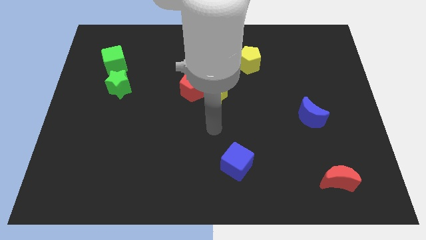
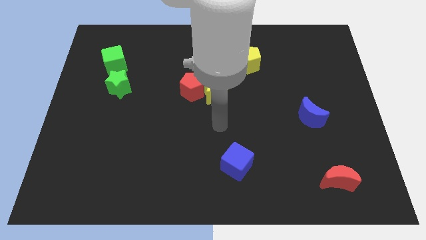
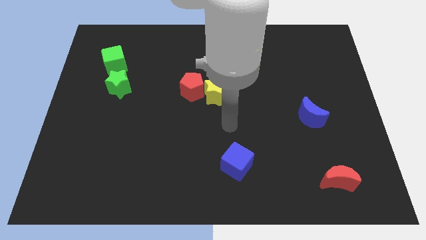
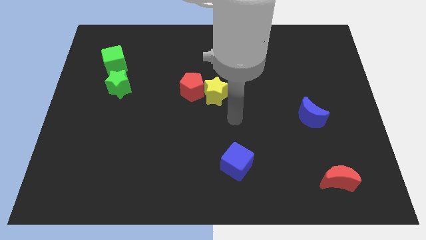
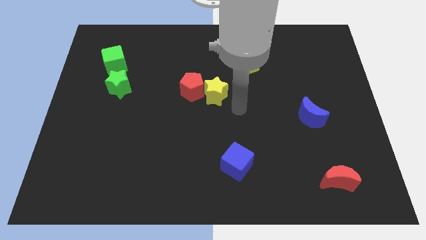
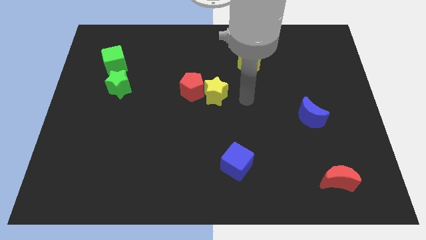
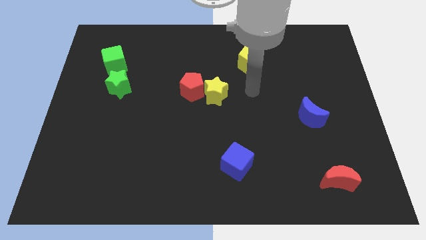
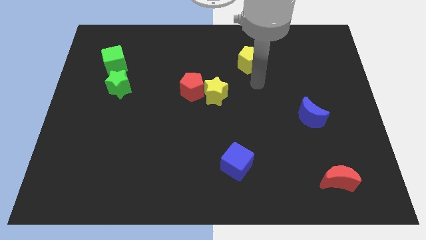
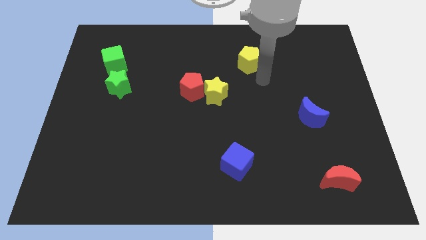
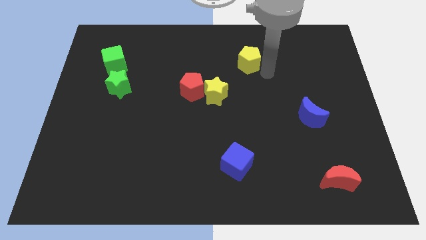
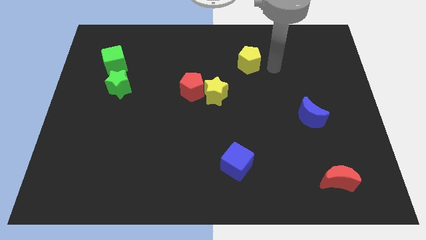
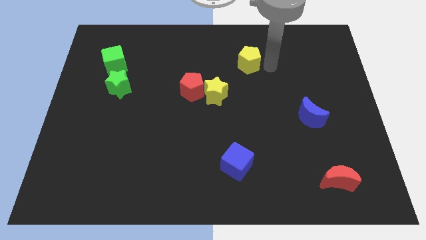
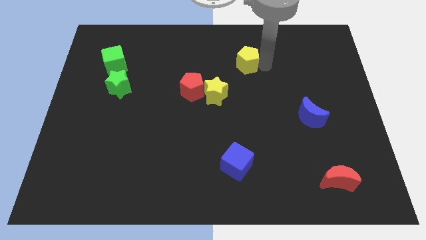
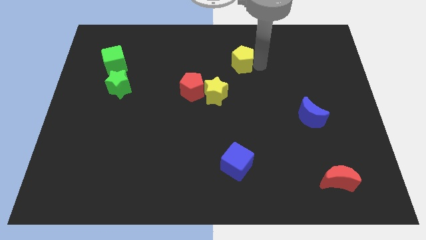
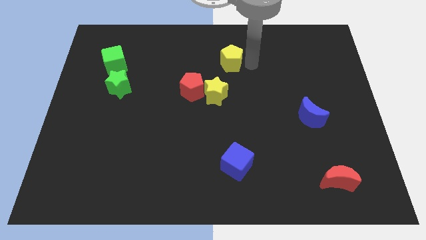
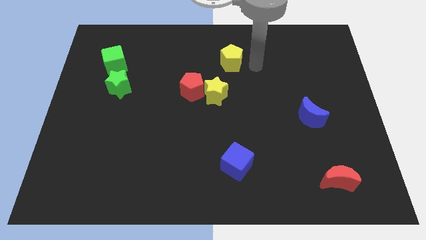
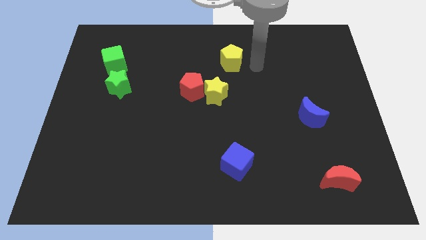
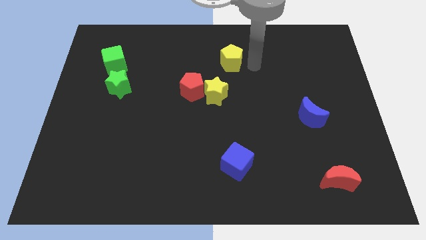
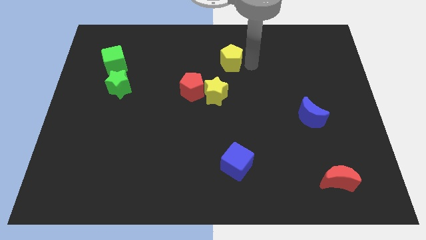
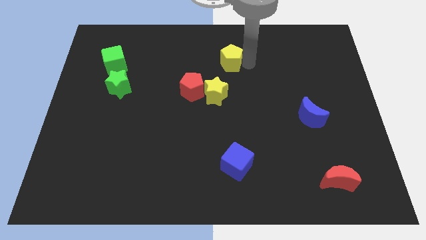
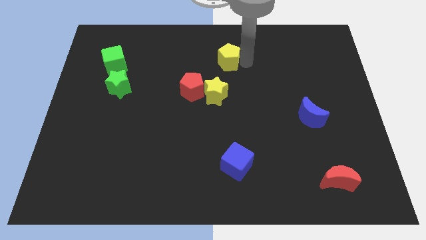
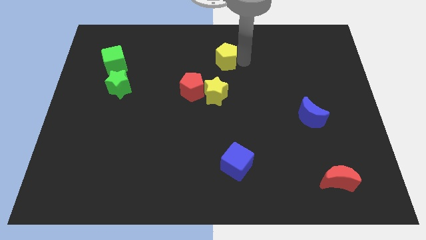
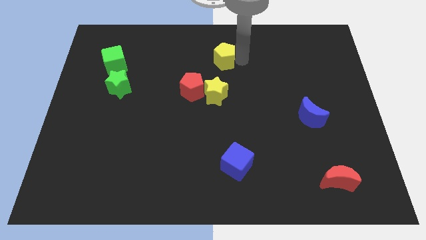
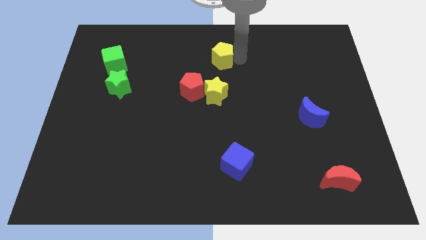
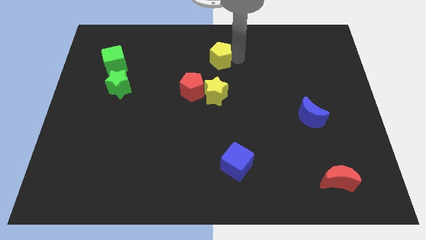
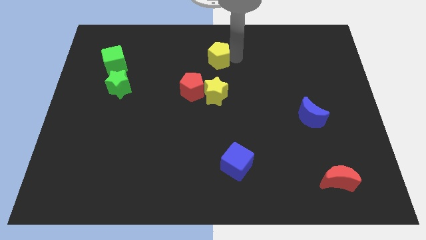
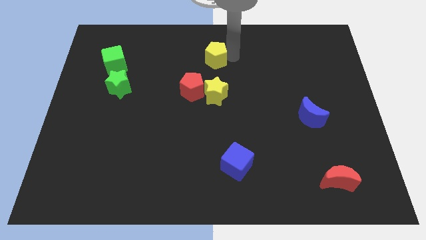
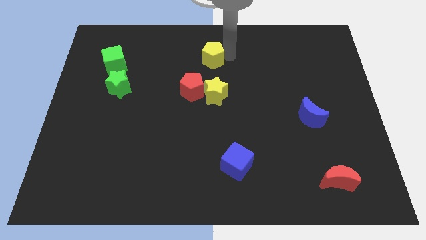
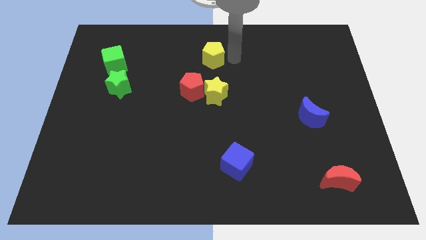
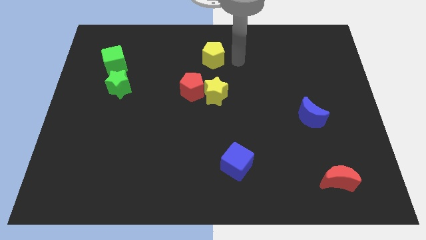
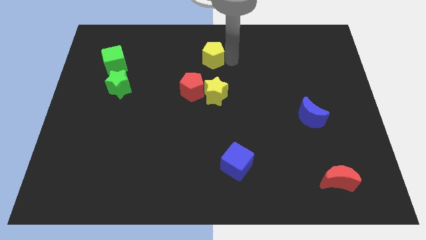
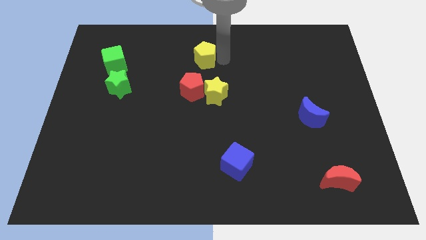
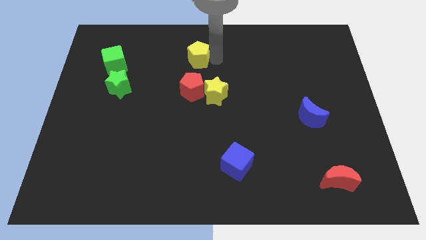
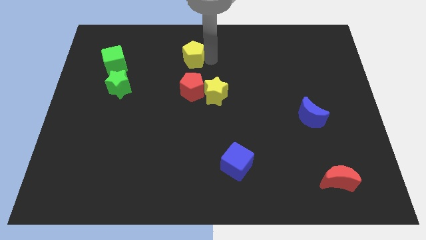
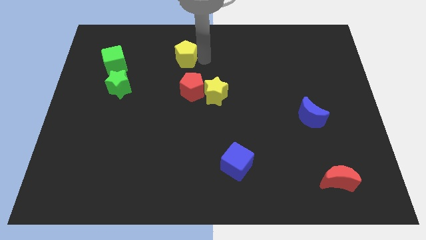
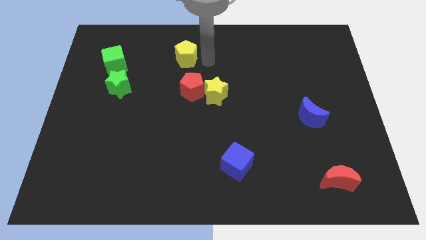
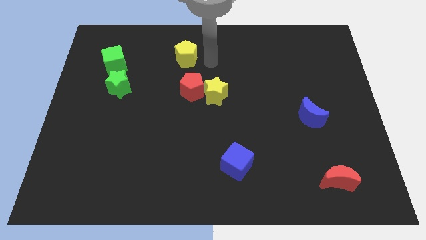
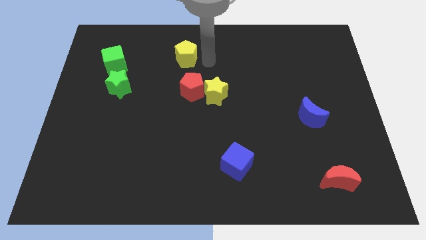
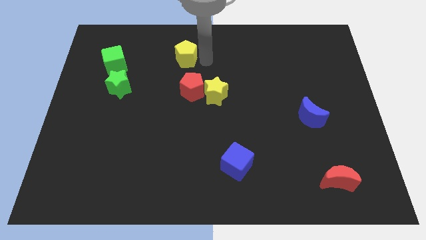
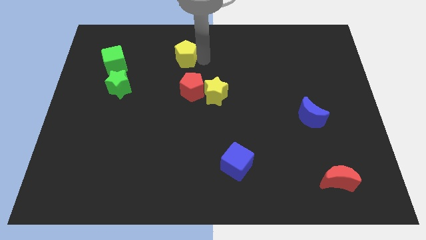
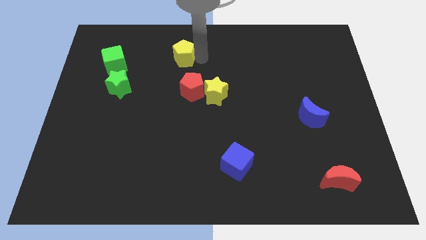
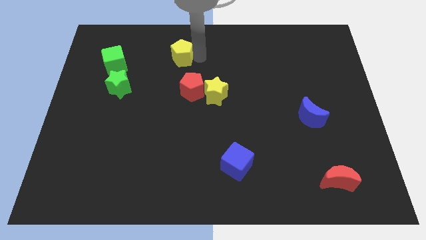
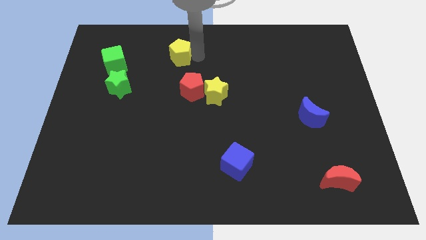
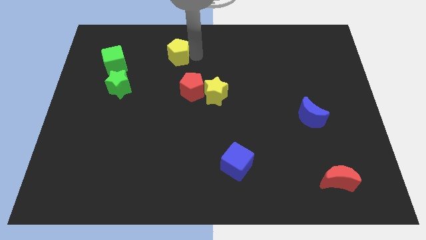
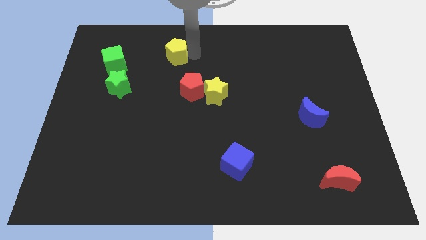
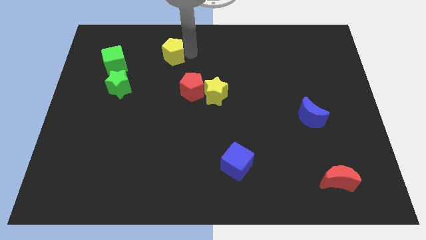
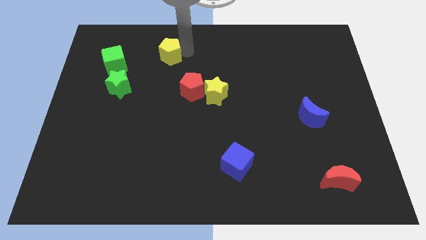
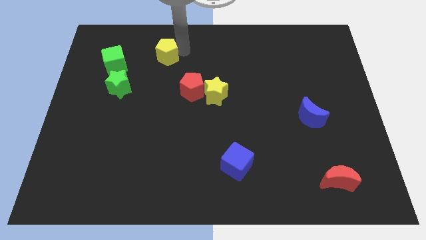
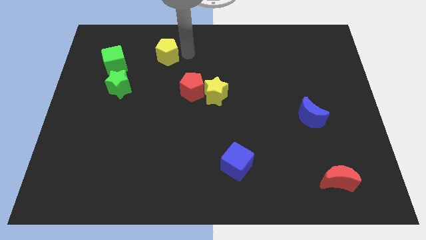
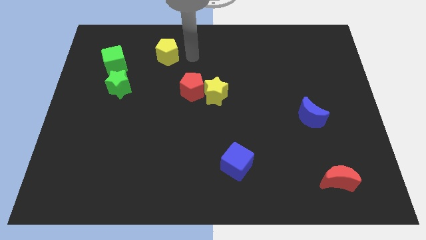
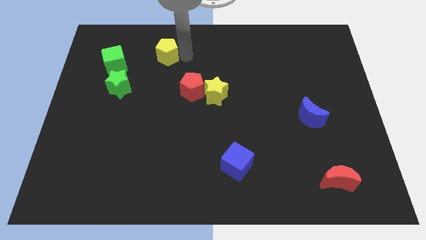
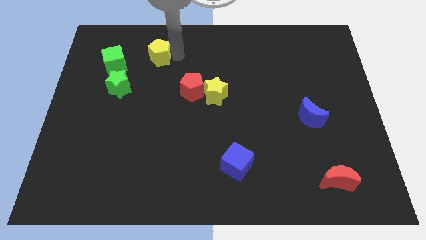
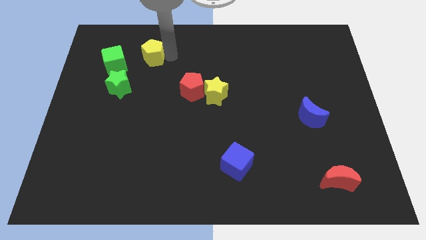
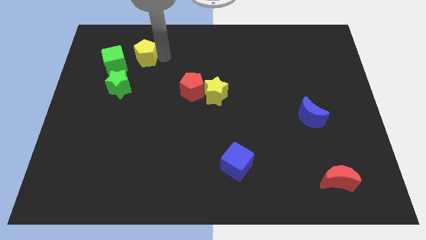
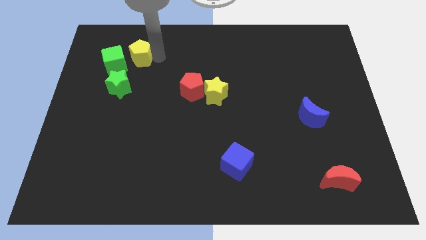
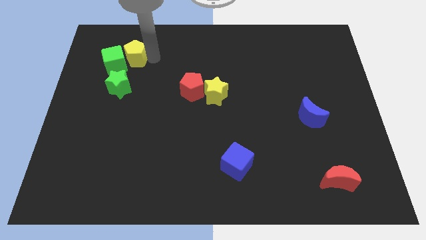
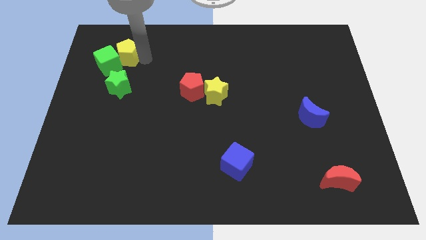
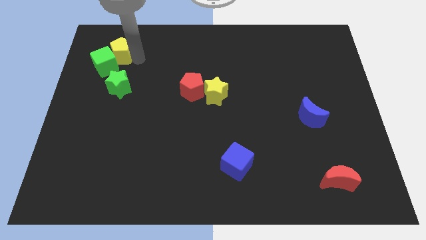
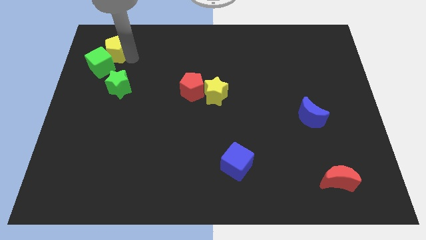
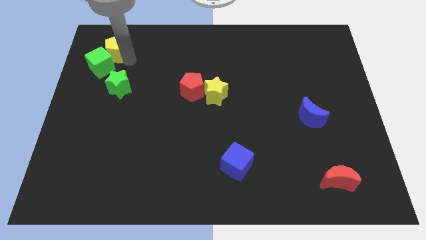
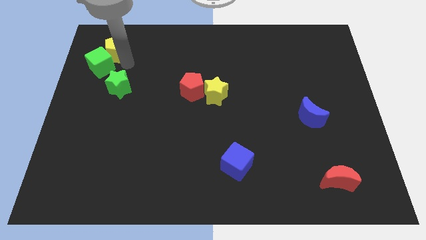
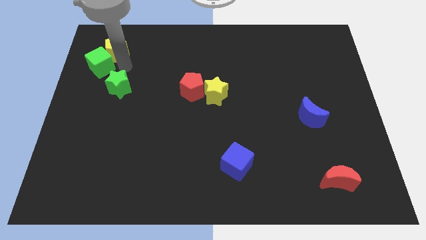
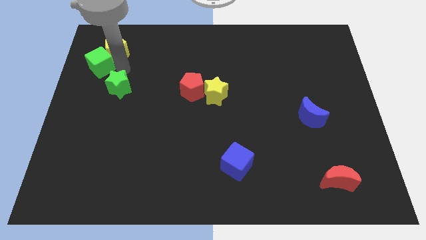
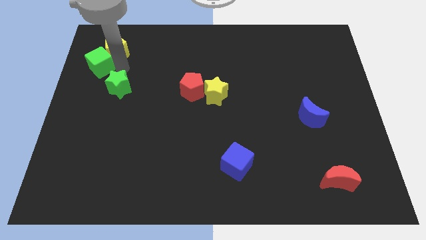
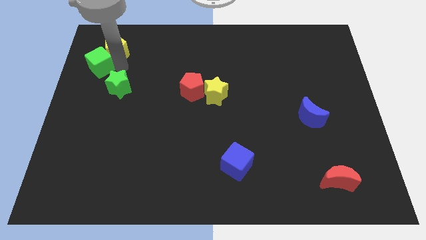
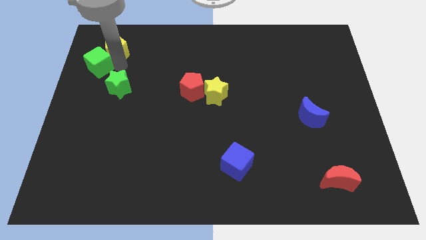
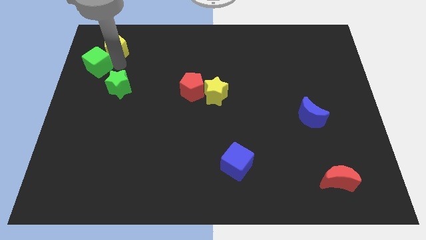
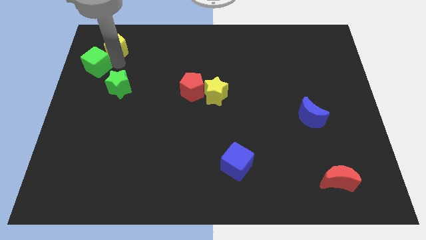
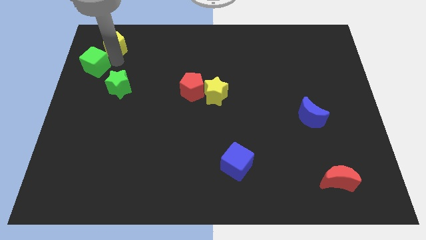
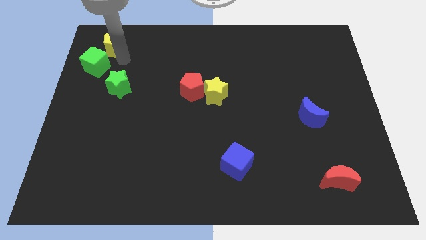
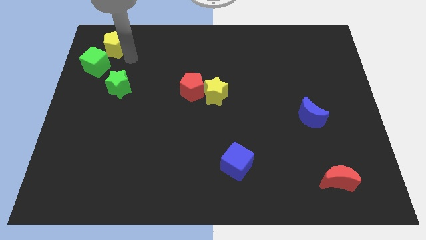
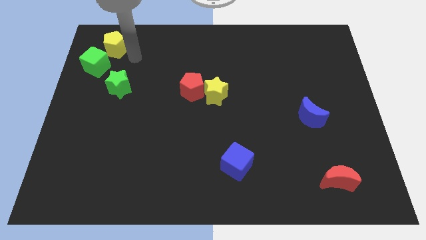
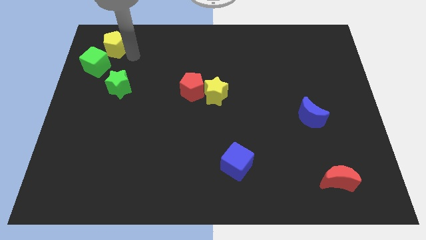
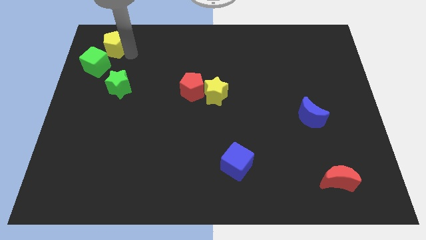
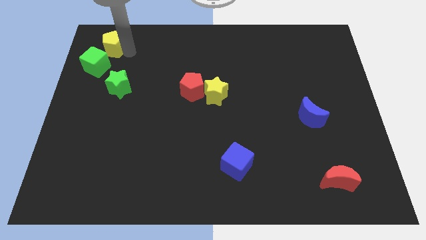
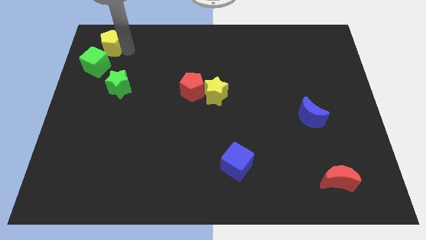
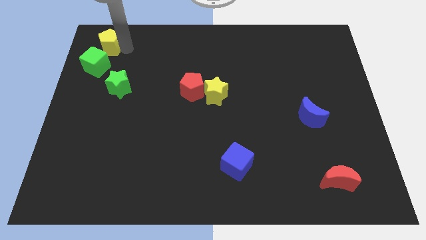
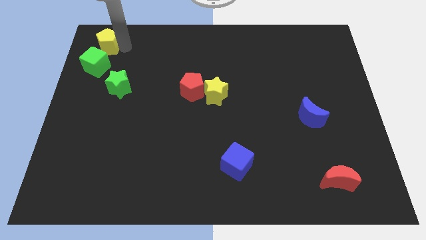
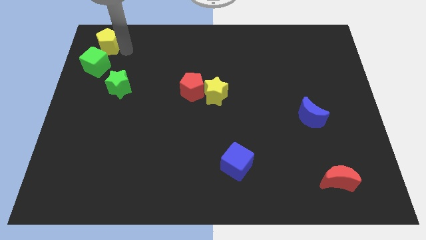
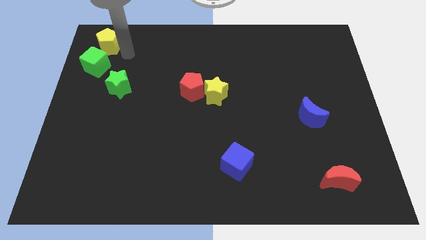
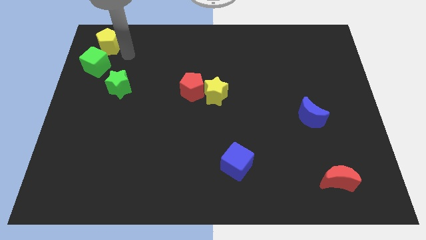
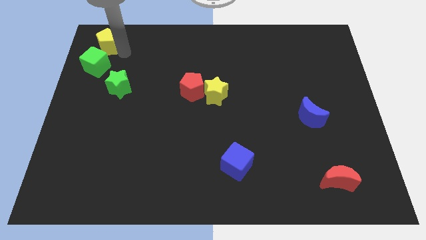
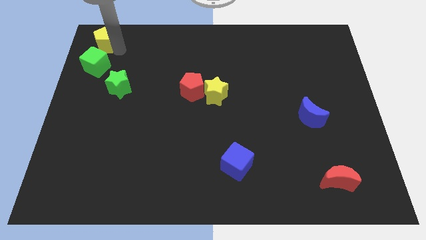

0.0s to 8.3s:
put the yellow pentagon to the top left
